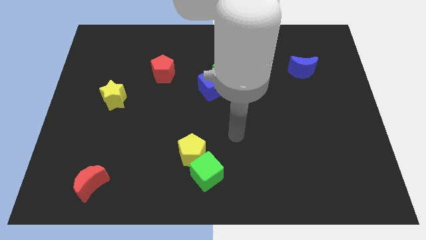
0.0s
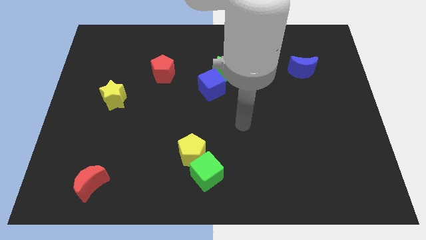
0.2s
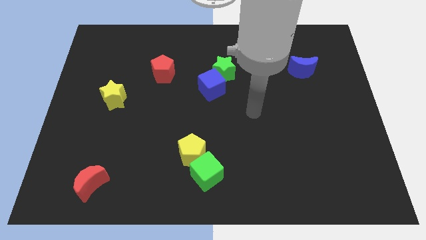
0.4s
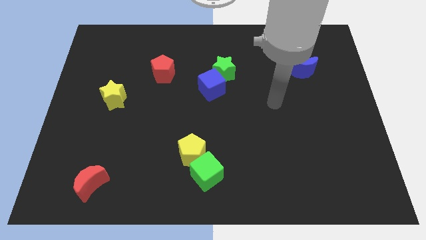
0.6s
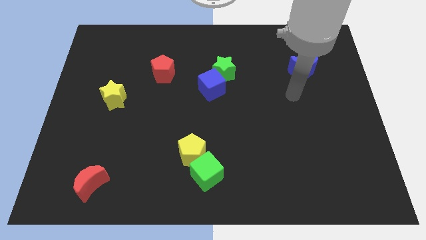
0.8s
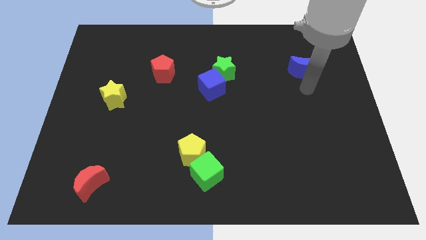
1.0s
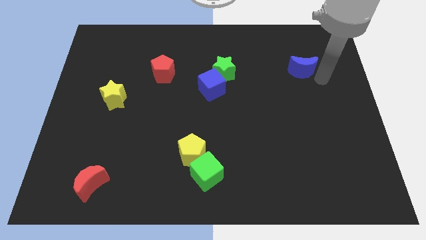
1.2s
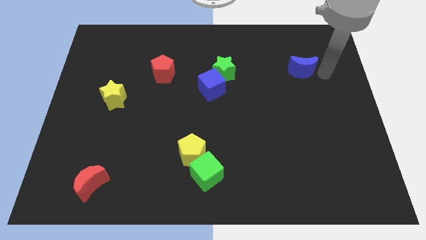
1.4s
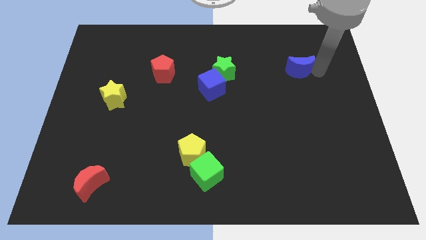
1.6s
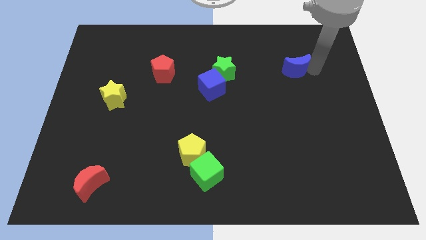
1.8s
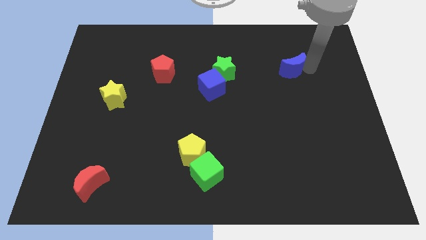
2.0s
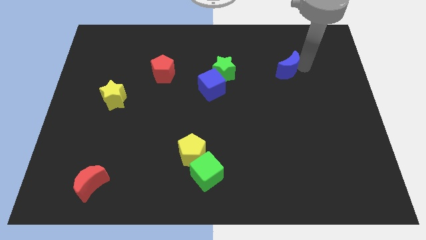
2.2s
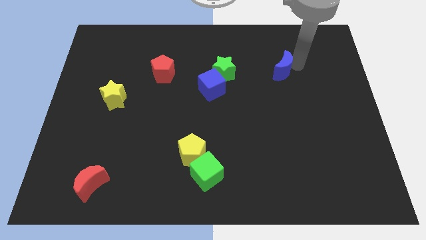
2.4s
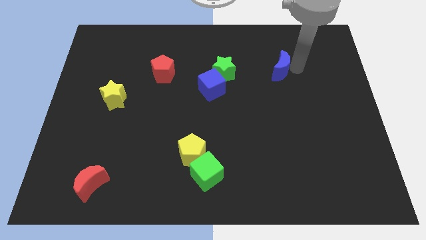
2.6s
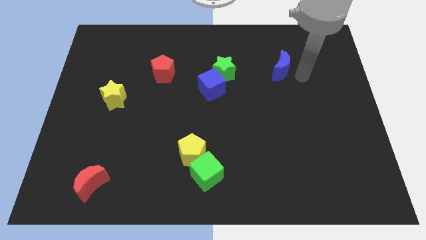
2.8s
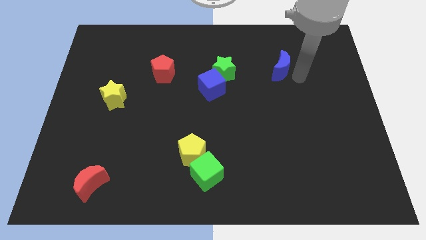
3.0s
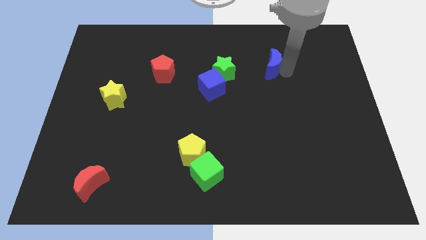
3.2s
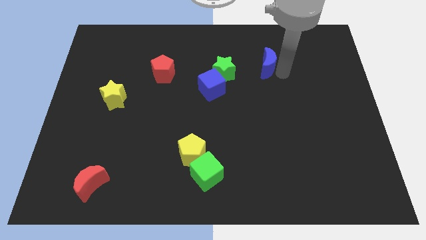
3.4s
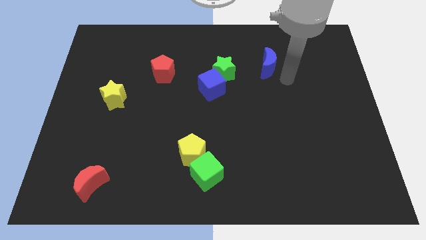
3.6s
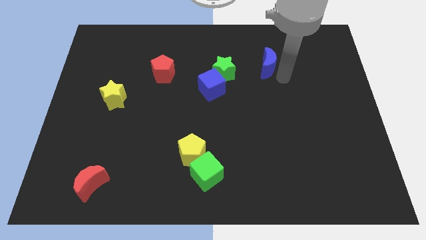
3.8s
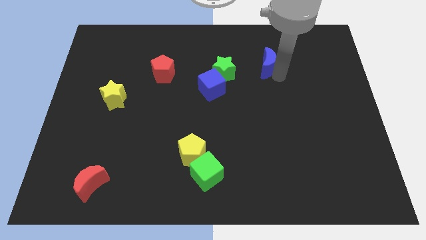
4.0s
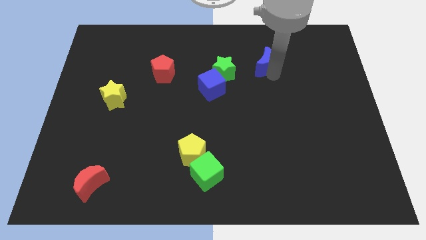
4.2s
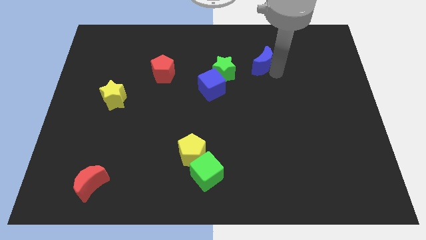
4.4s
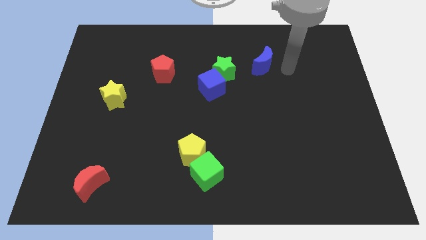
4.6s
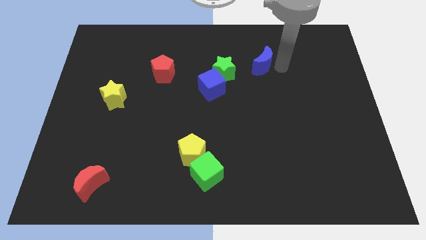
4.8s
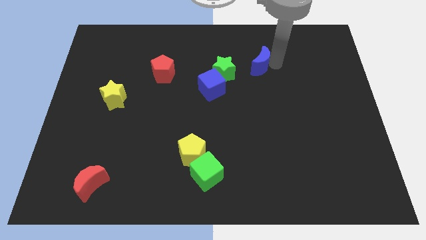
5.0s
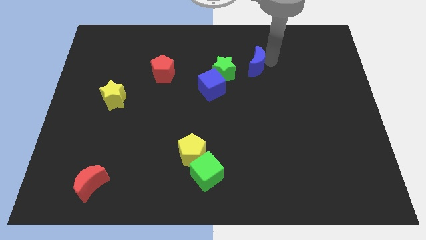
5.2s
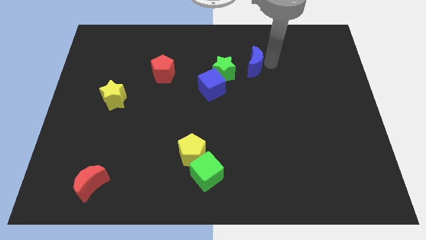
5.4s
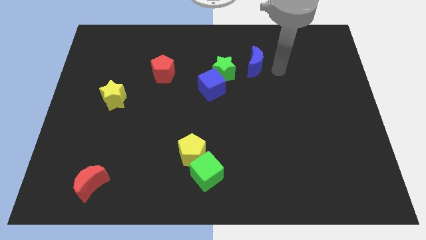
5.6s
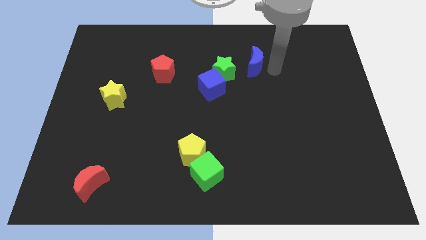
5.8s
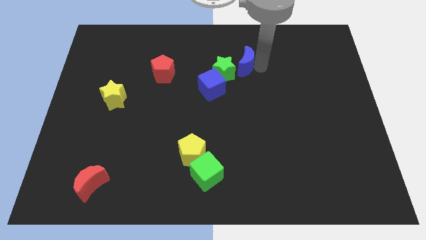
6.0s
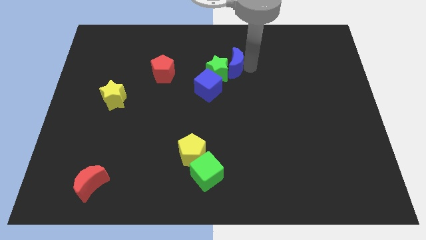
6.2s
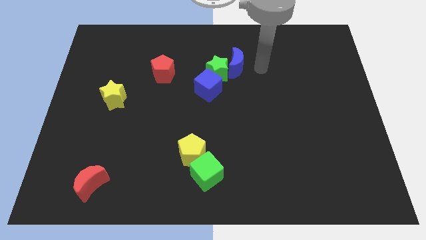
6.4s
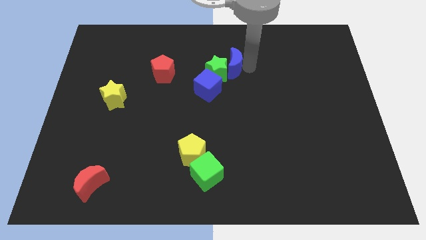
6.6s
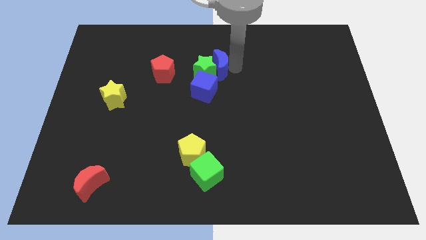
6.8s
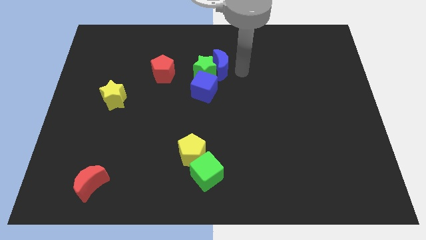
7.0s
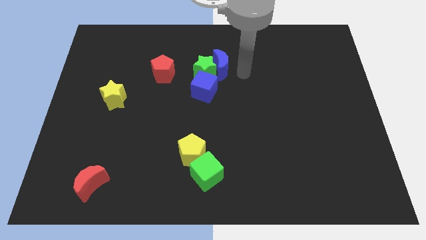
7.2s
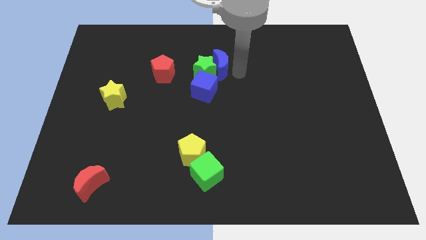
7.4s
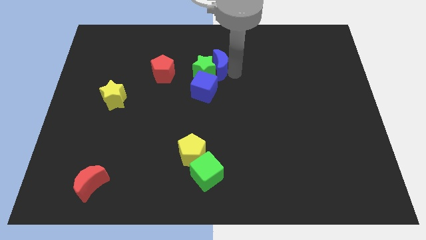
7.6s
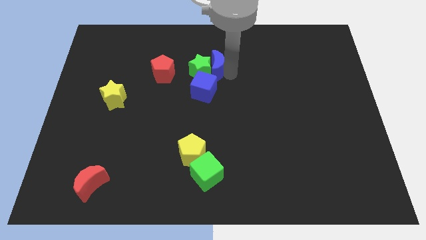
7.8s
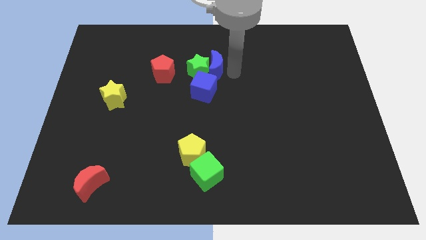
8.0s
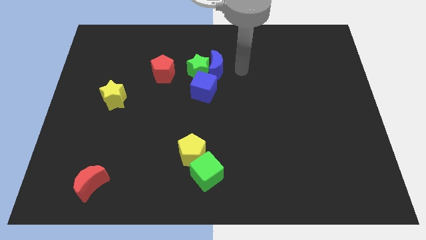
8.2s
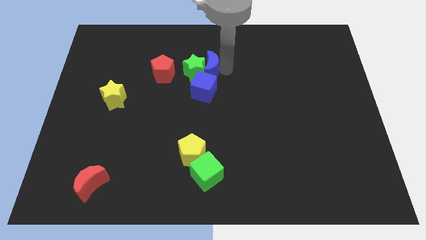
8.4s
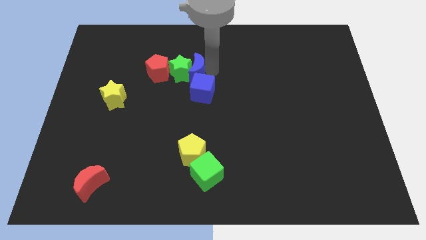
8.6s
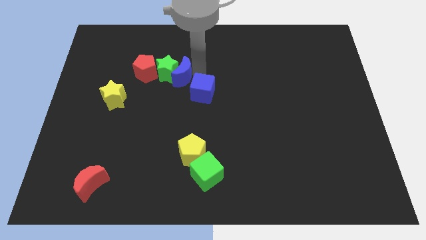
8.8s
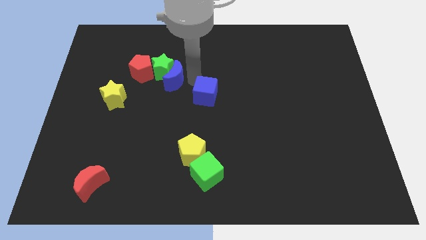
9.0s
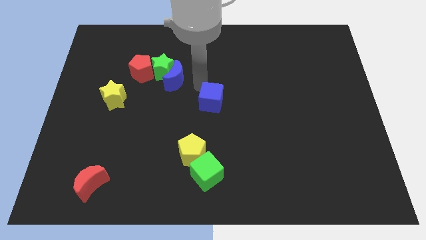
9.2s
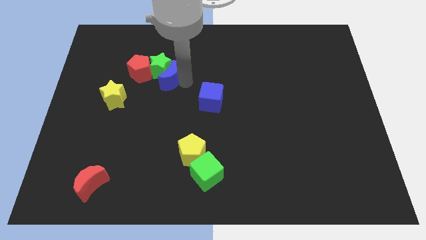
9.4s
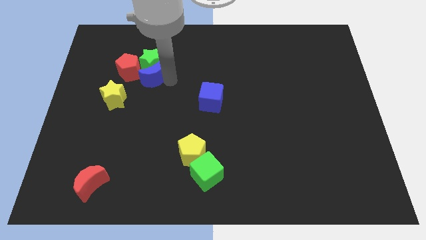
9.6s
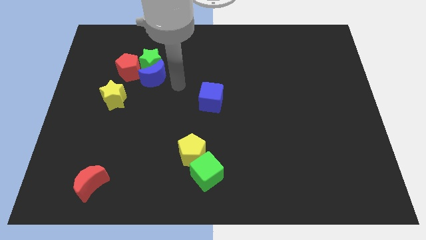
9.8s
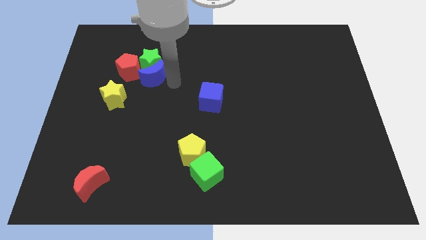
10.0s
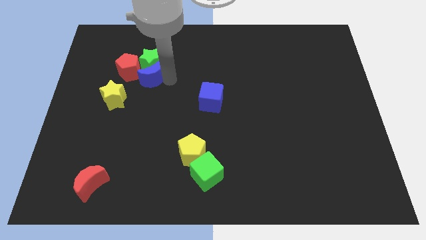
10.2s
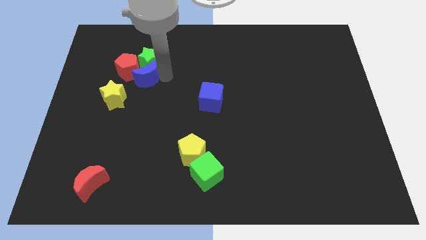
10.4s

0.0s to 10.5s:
push the blue moon towards the red pentagon
